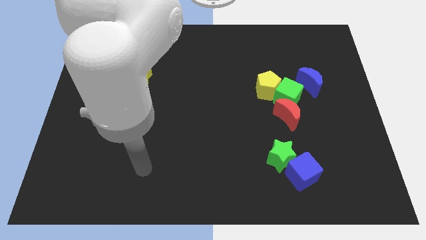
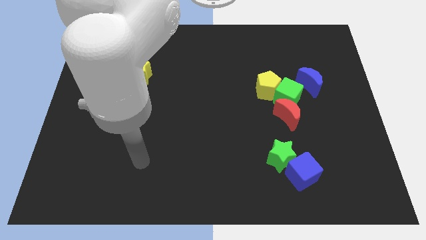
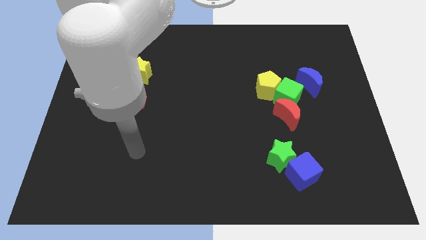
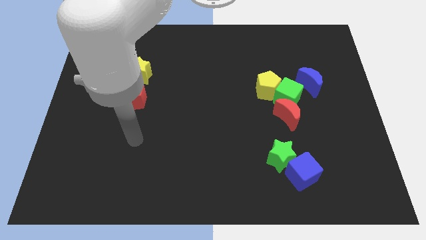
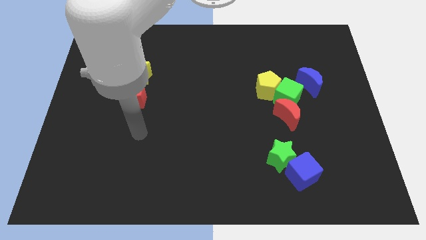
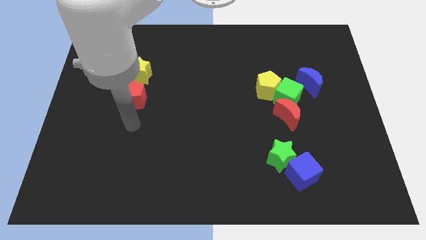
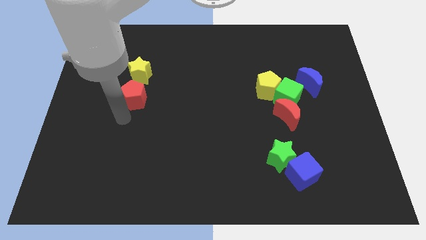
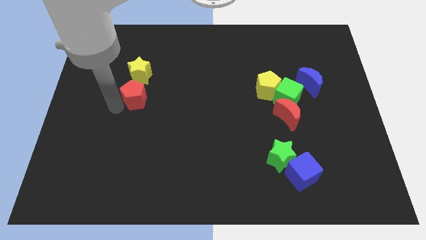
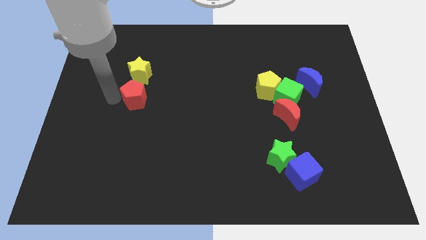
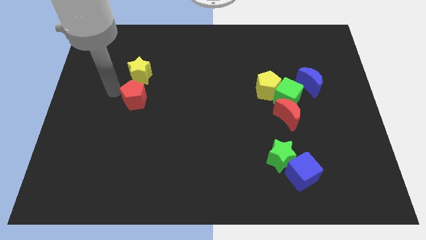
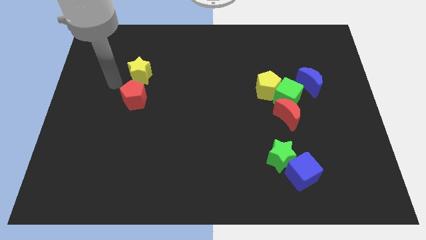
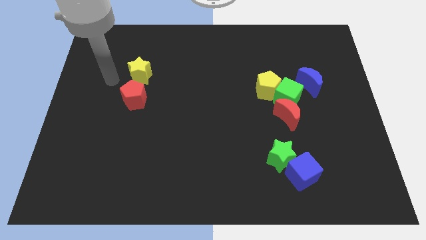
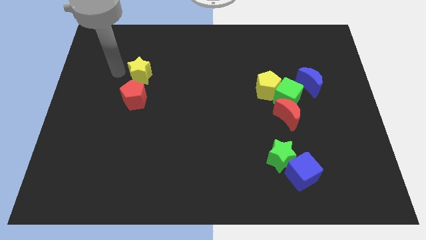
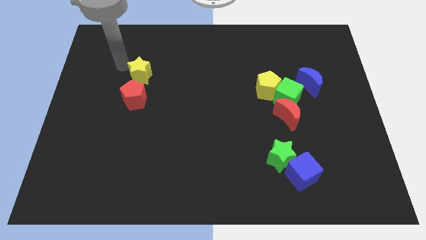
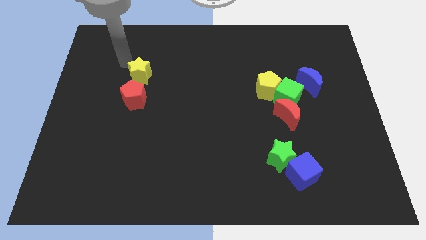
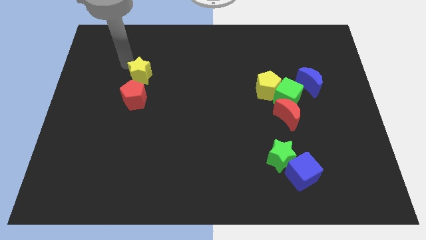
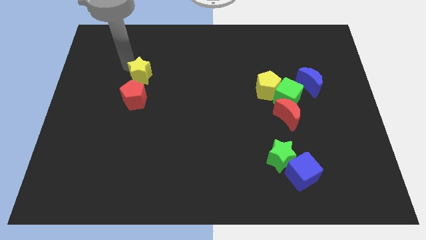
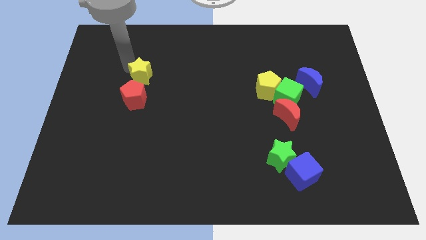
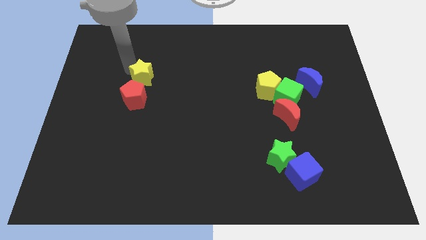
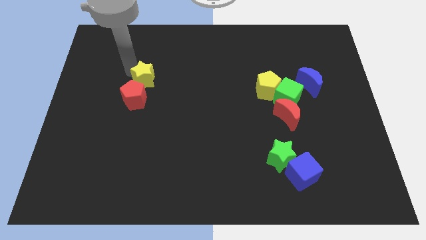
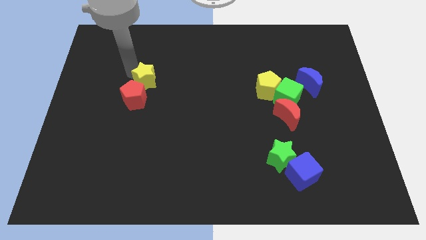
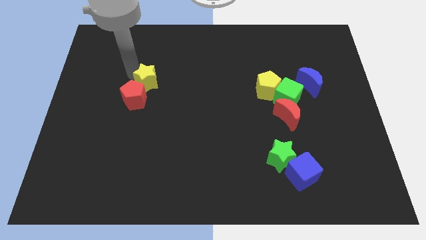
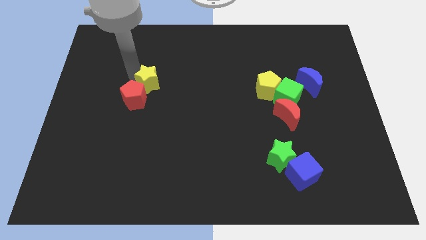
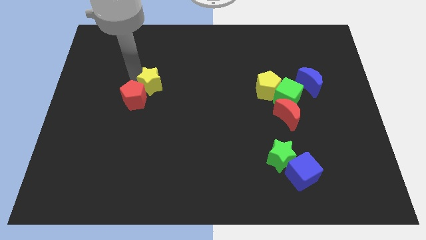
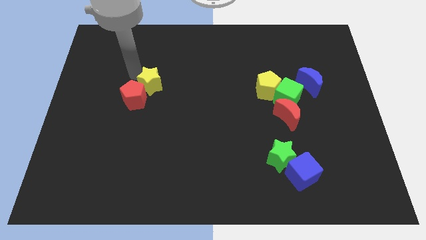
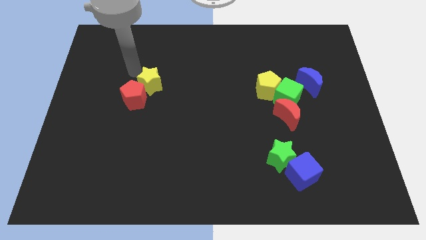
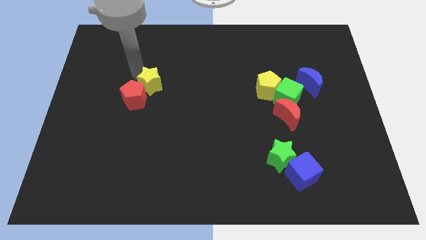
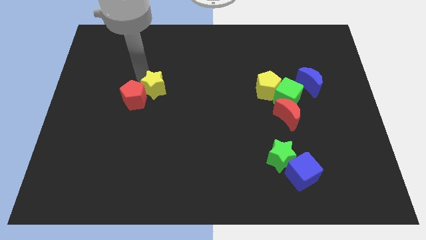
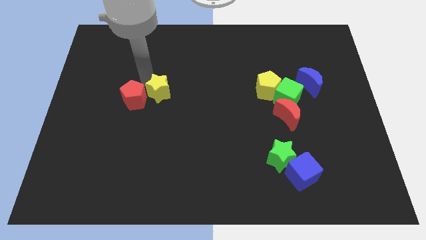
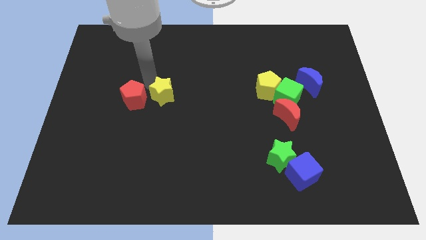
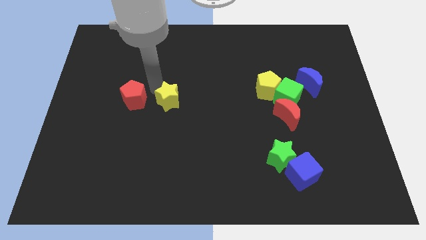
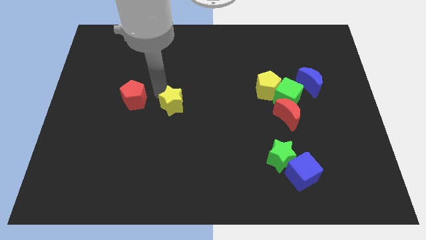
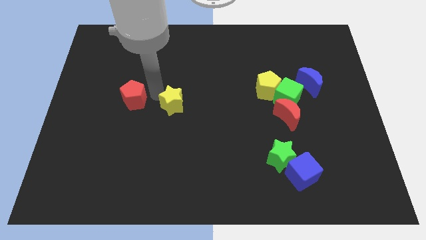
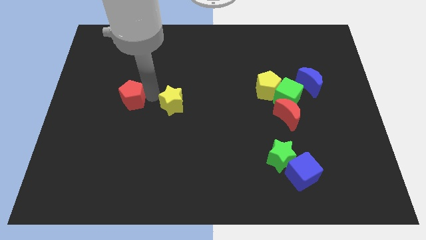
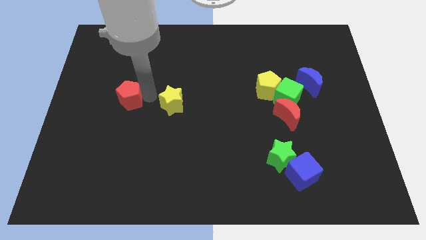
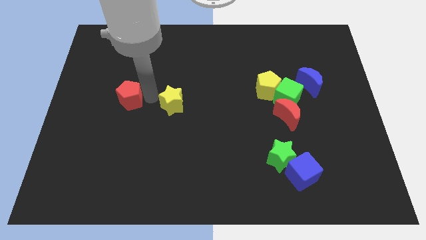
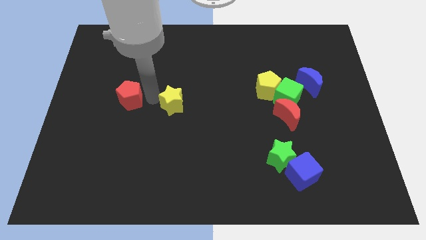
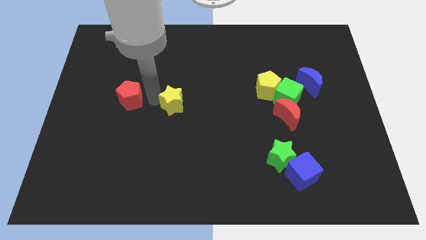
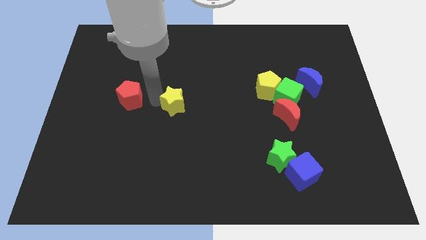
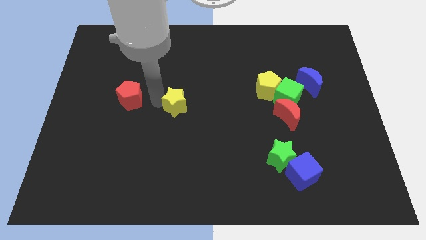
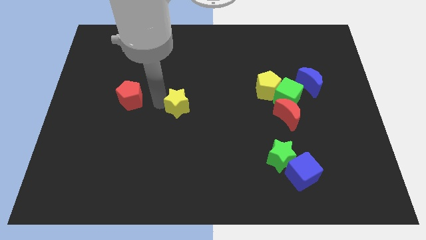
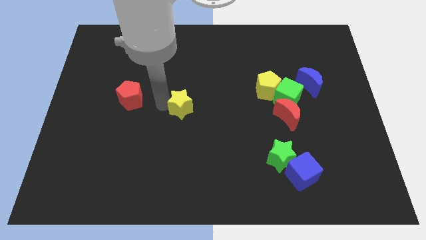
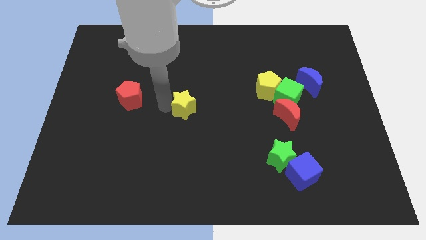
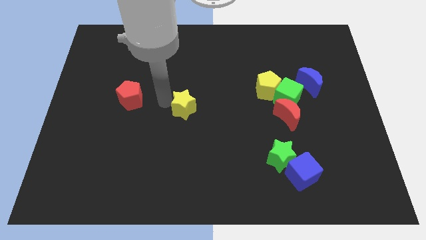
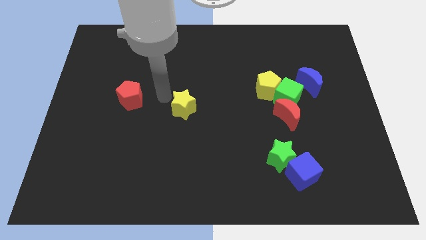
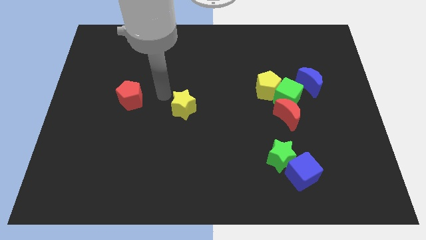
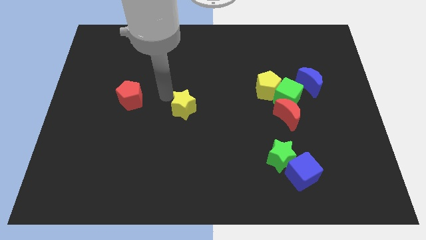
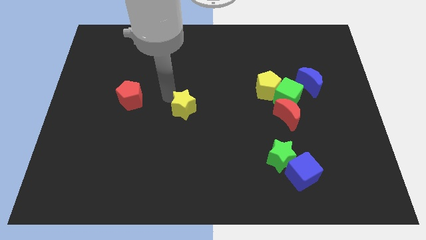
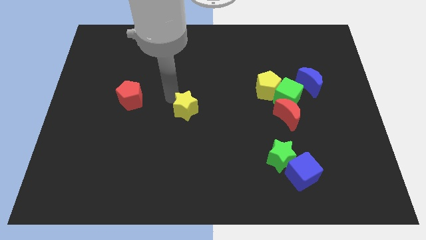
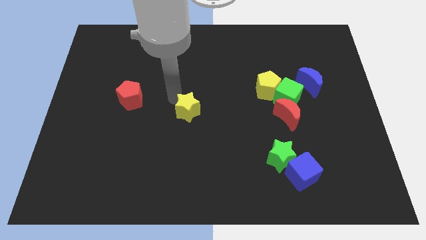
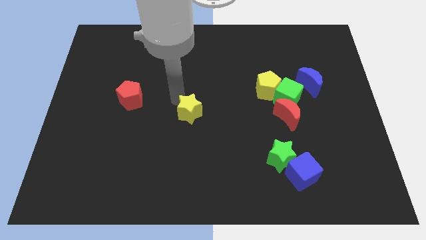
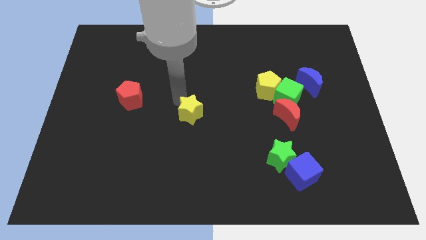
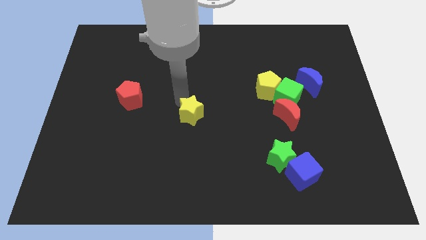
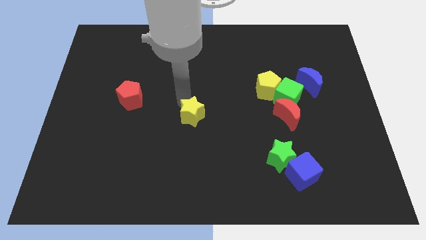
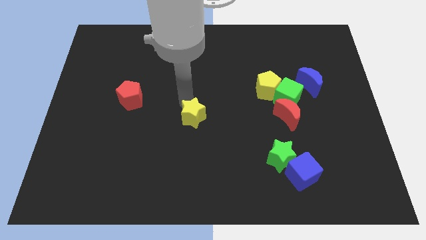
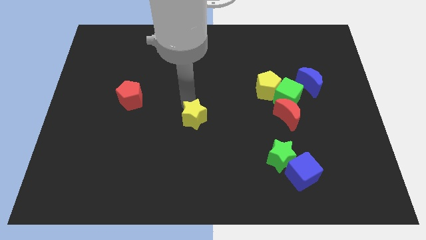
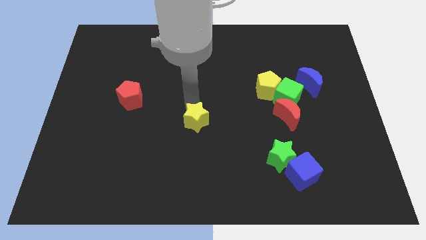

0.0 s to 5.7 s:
slide the yellow star down and then to the right

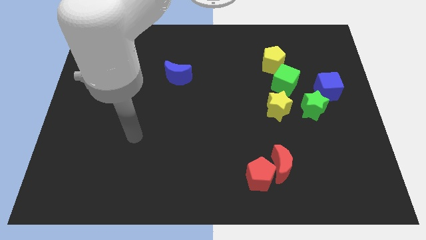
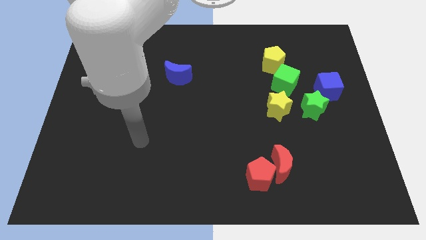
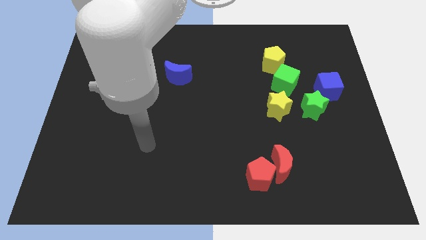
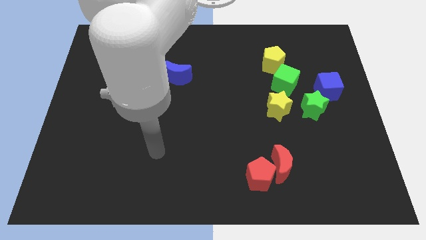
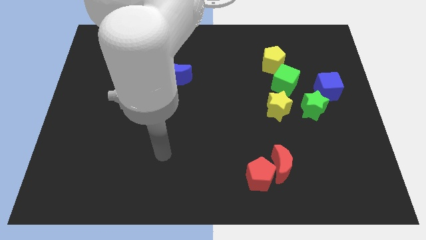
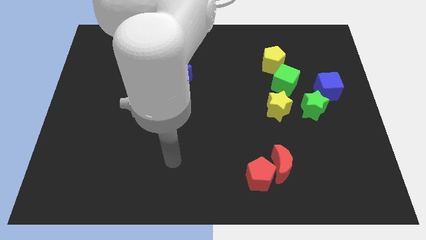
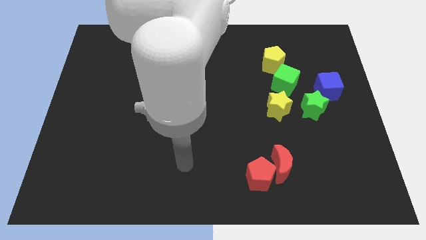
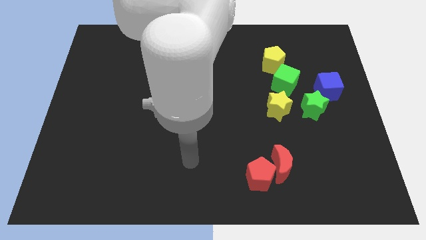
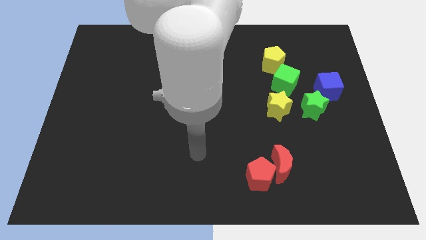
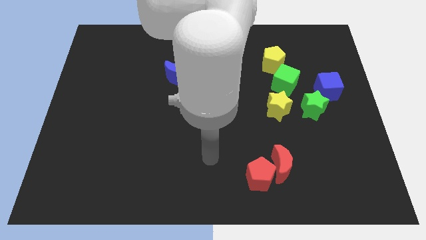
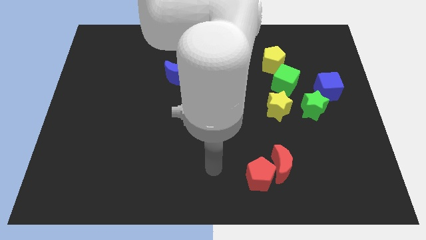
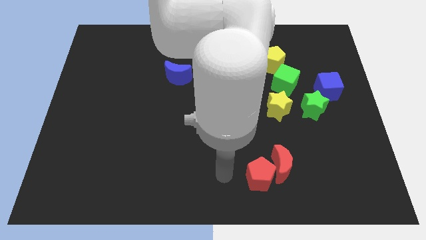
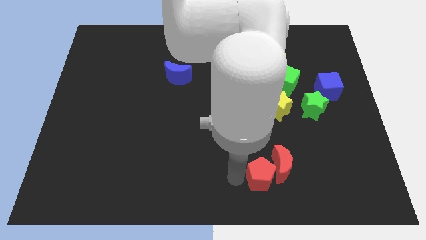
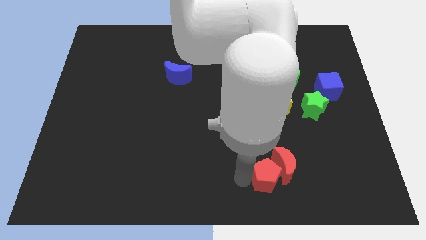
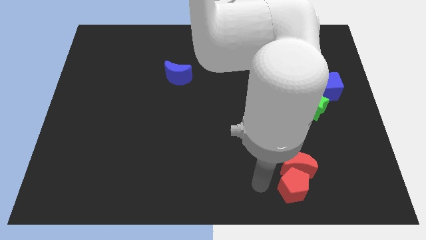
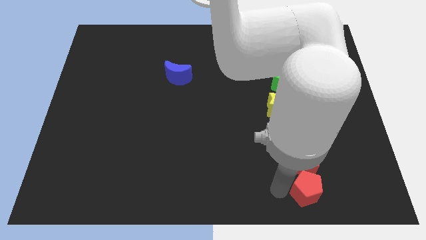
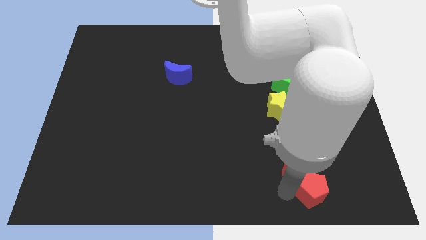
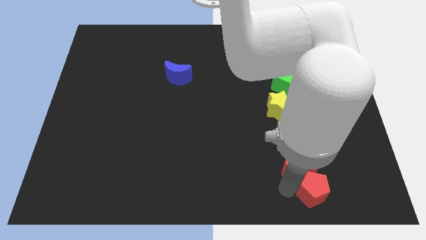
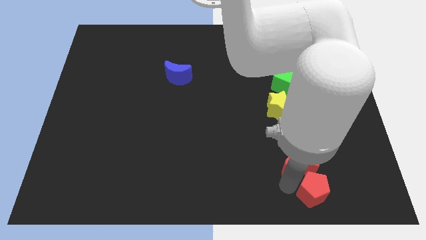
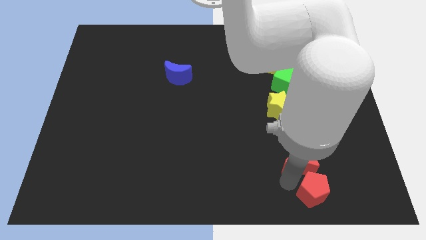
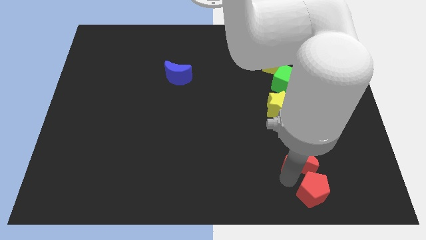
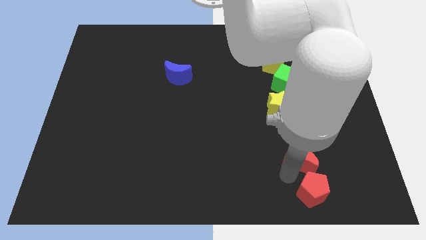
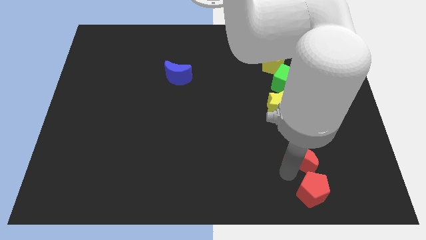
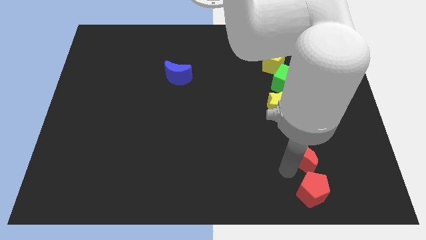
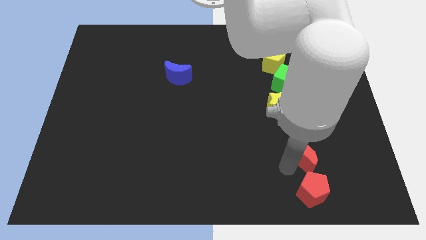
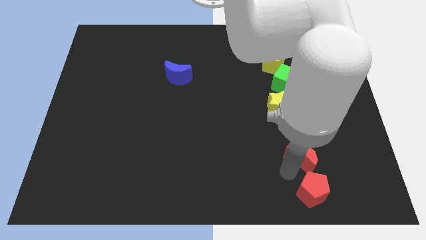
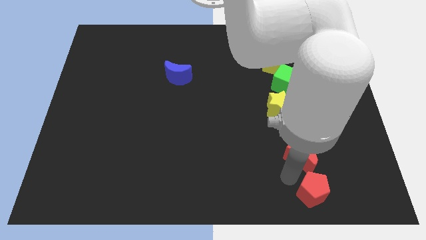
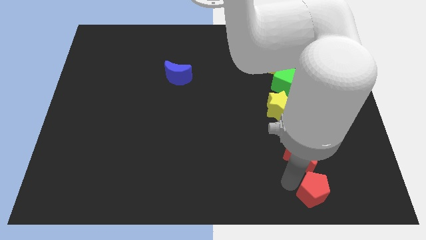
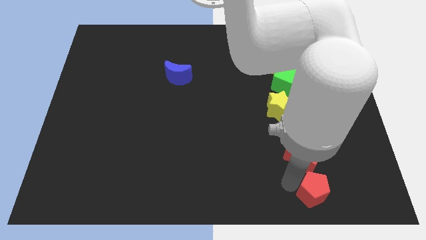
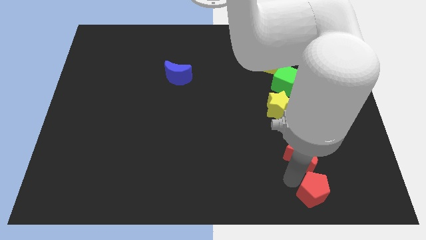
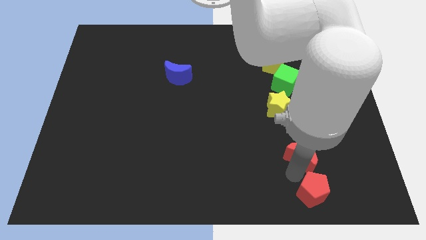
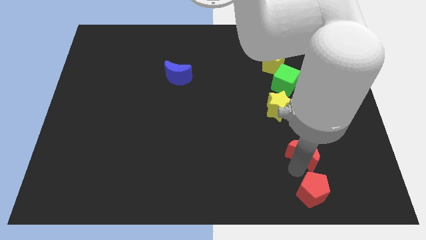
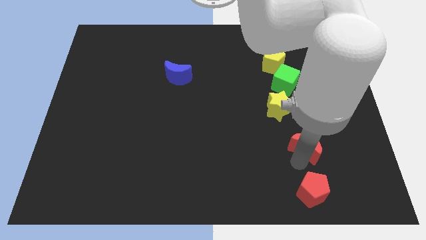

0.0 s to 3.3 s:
slightly move the red moon diagonally upwards and right
